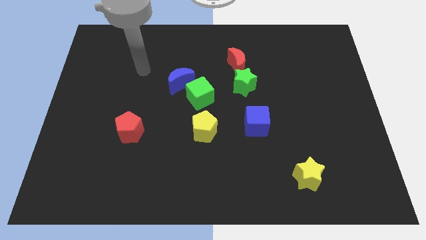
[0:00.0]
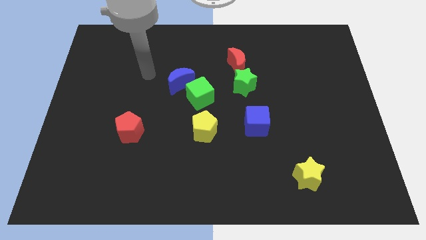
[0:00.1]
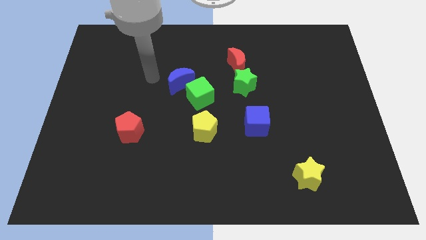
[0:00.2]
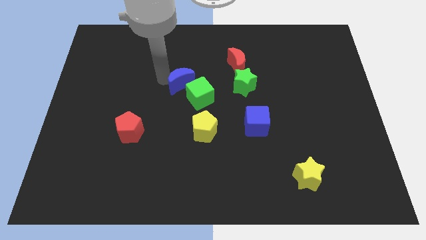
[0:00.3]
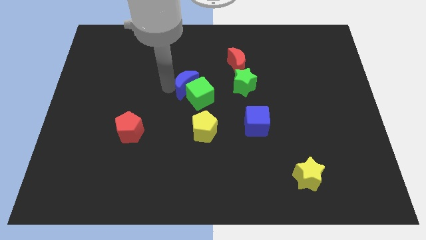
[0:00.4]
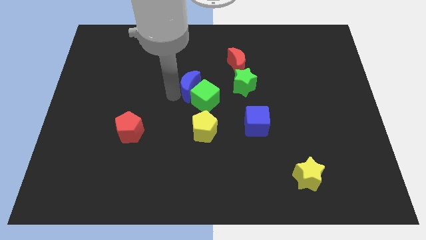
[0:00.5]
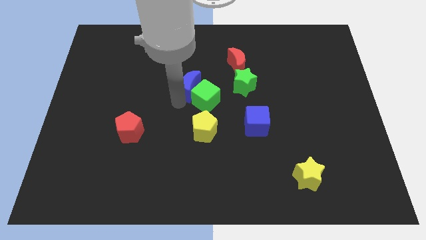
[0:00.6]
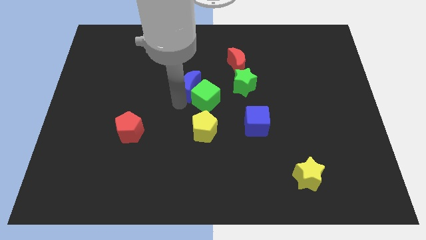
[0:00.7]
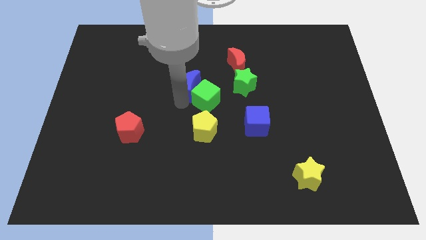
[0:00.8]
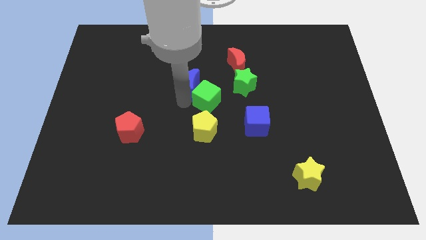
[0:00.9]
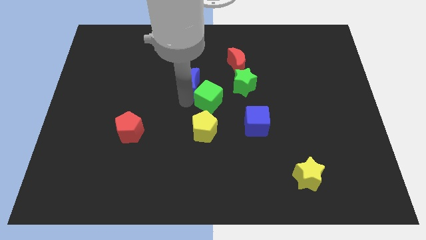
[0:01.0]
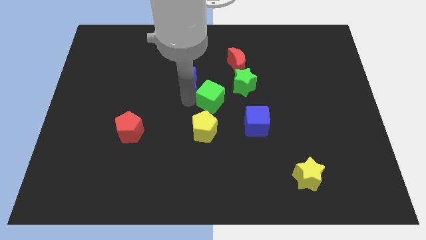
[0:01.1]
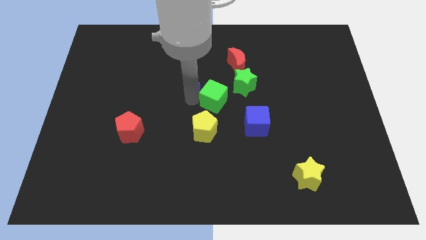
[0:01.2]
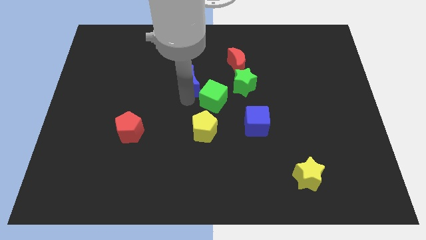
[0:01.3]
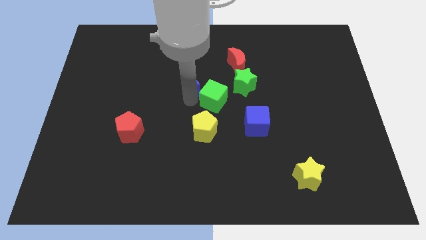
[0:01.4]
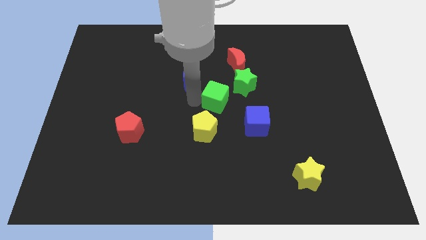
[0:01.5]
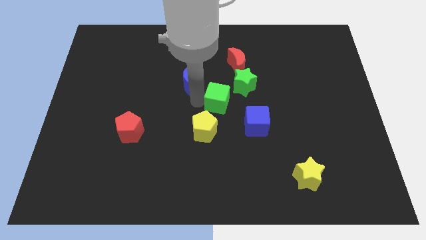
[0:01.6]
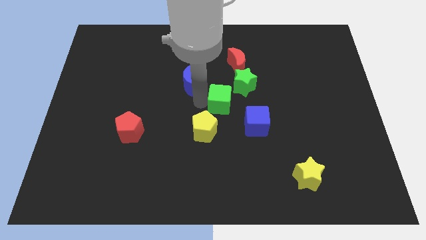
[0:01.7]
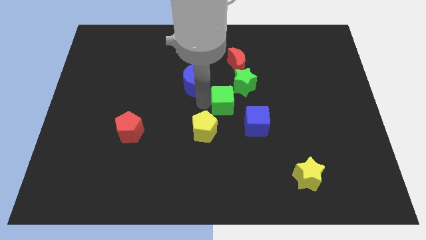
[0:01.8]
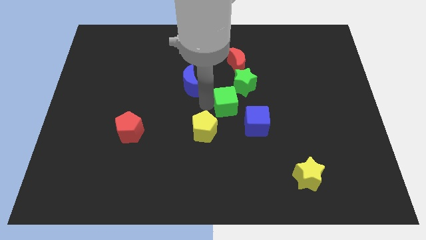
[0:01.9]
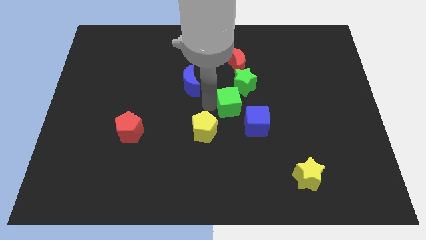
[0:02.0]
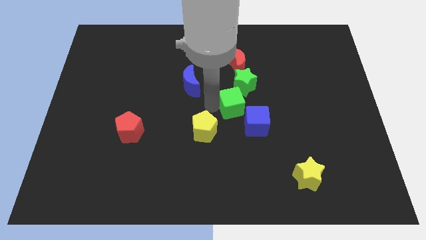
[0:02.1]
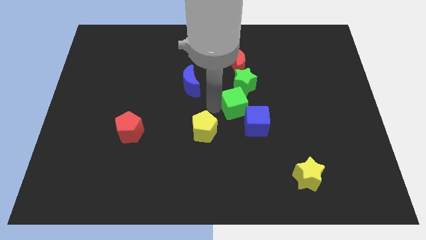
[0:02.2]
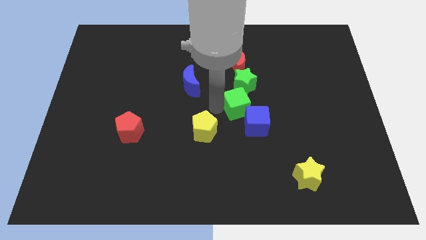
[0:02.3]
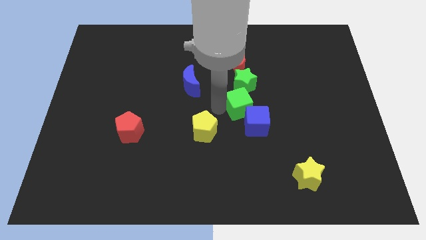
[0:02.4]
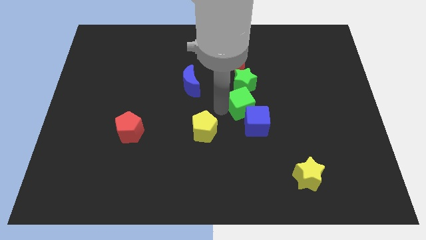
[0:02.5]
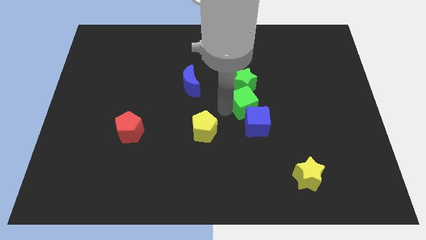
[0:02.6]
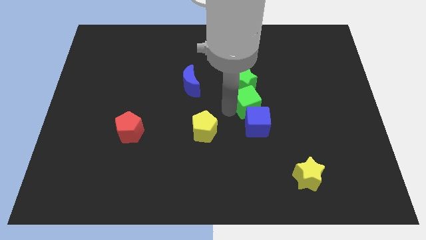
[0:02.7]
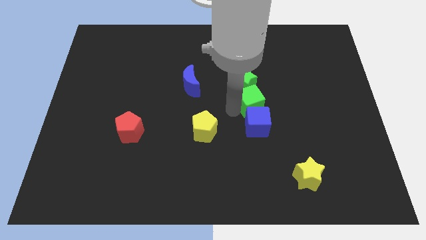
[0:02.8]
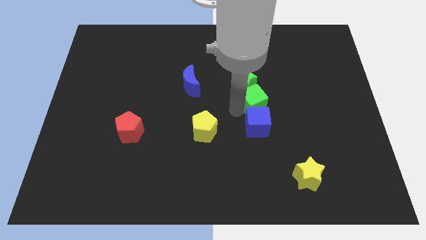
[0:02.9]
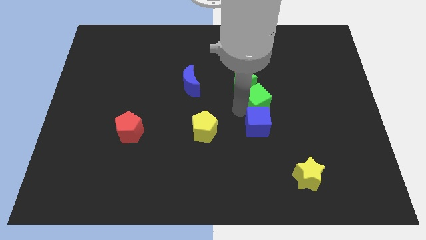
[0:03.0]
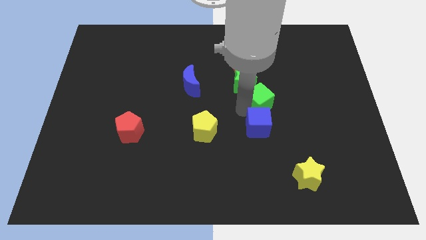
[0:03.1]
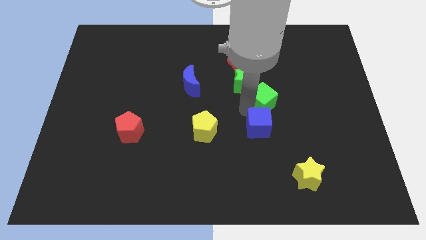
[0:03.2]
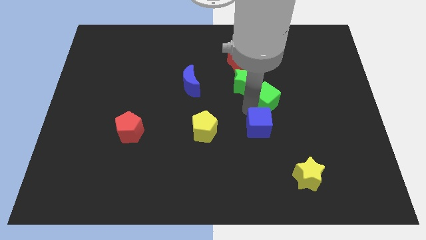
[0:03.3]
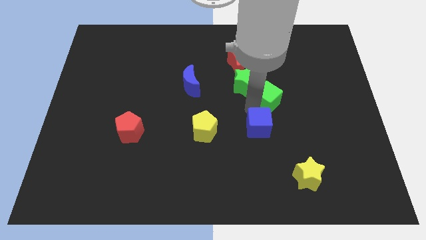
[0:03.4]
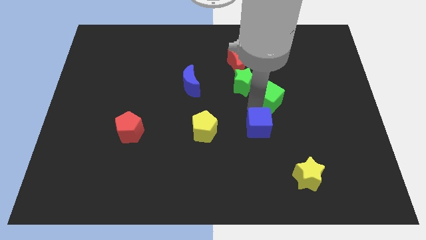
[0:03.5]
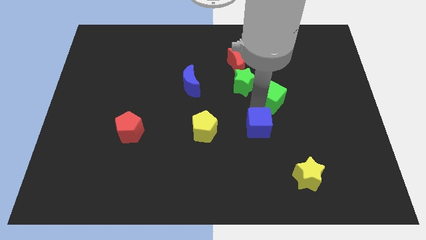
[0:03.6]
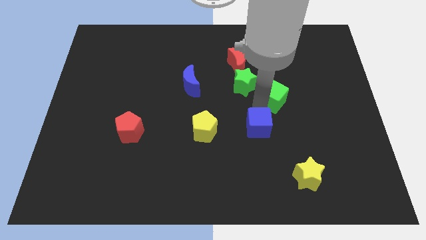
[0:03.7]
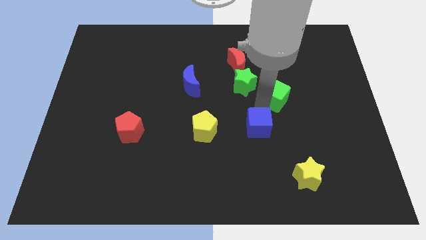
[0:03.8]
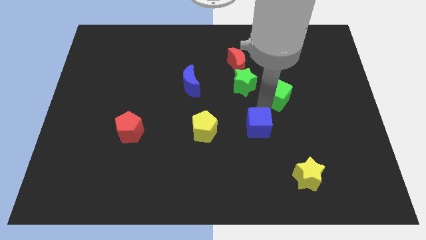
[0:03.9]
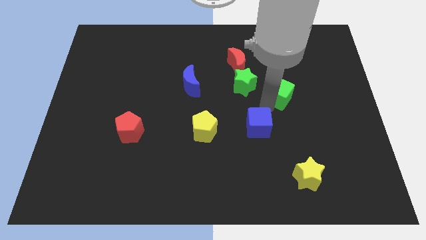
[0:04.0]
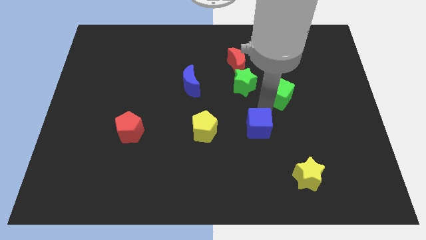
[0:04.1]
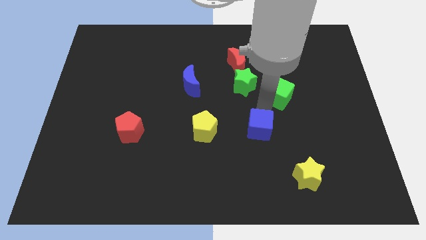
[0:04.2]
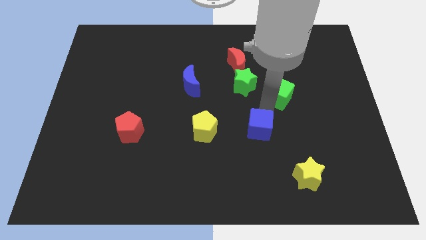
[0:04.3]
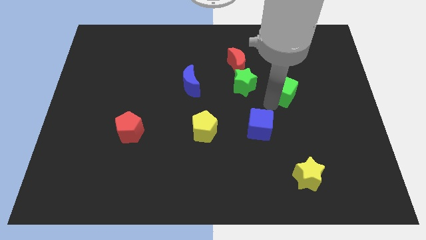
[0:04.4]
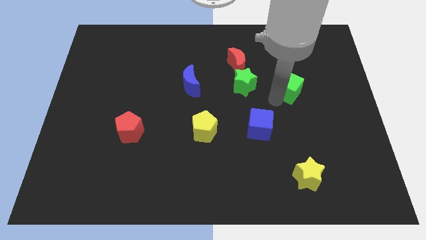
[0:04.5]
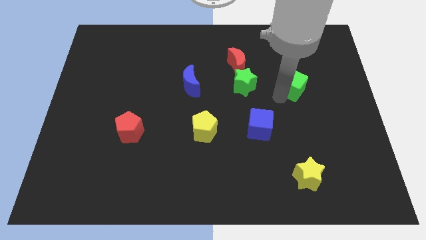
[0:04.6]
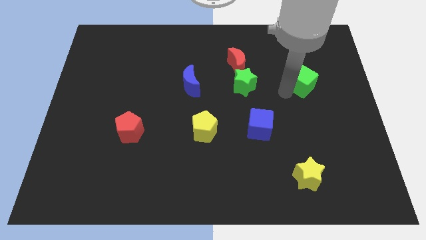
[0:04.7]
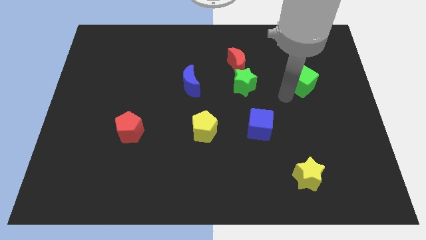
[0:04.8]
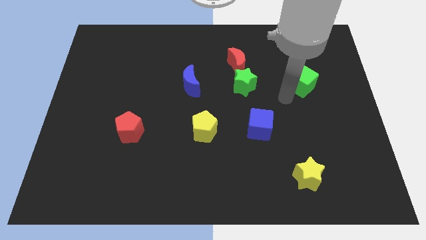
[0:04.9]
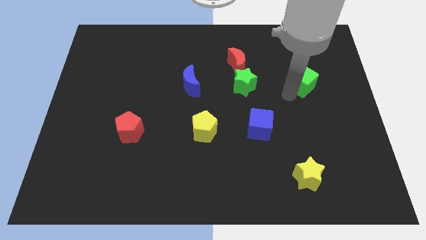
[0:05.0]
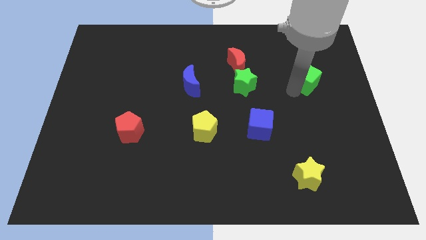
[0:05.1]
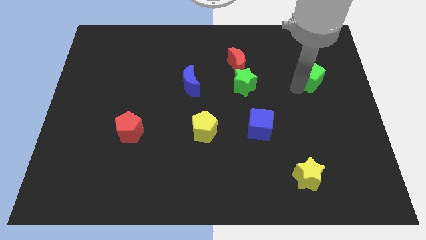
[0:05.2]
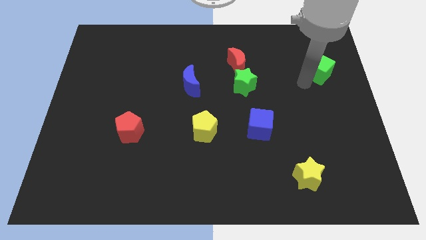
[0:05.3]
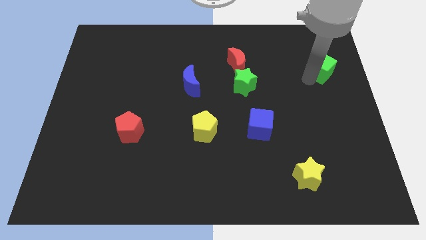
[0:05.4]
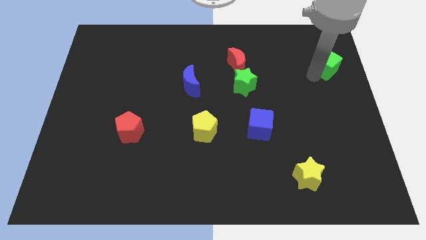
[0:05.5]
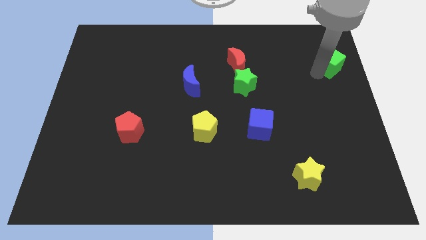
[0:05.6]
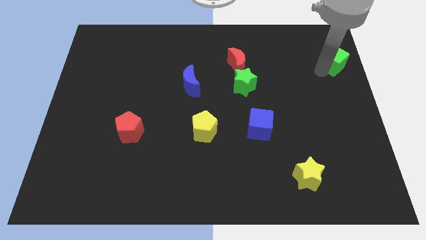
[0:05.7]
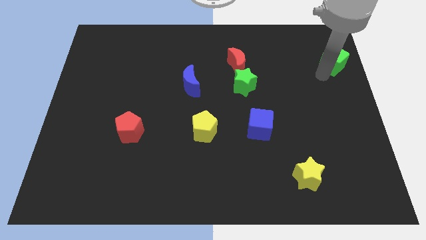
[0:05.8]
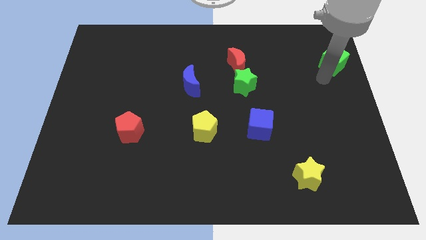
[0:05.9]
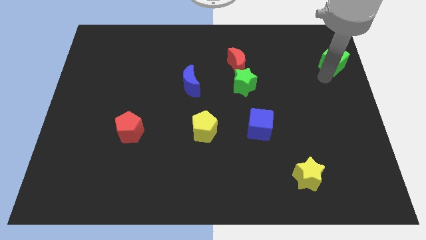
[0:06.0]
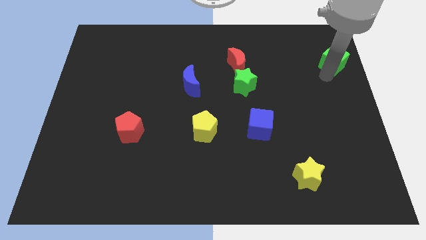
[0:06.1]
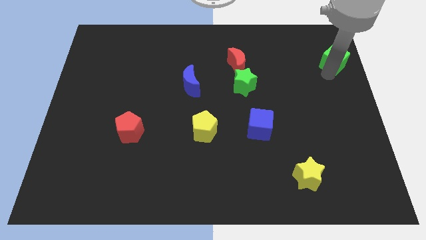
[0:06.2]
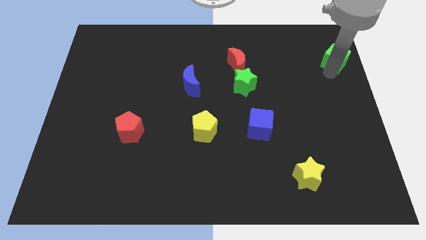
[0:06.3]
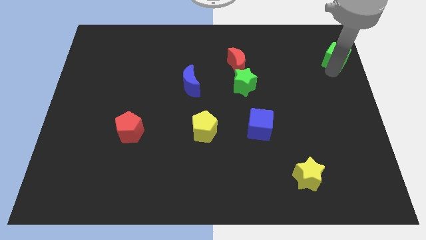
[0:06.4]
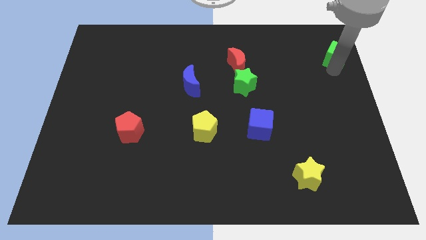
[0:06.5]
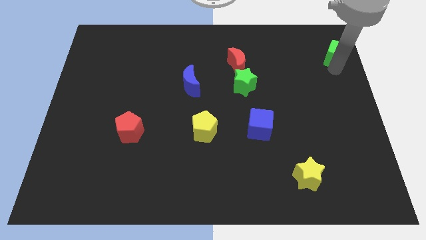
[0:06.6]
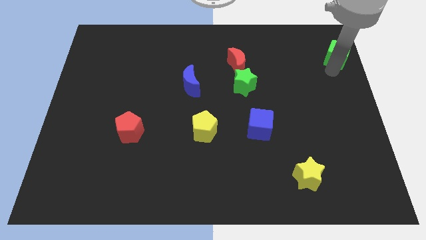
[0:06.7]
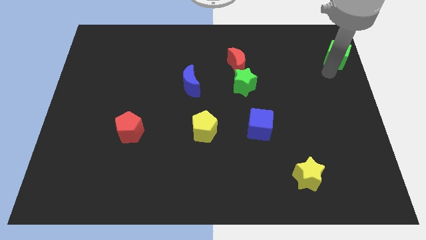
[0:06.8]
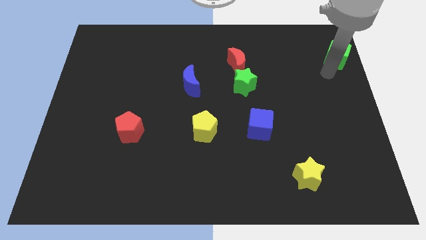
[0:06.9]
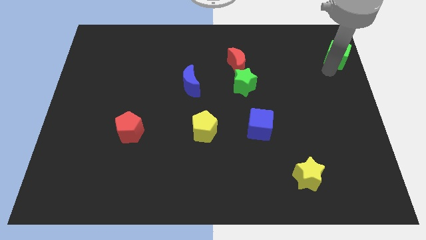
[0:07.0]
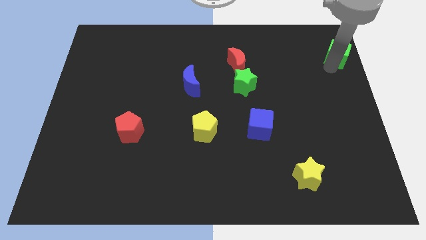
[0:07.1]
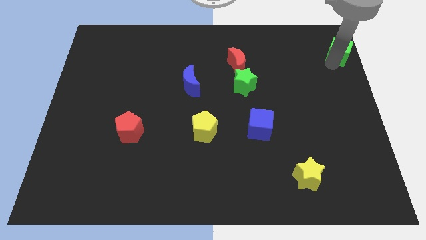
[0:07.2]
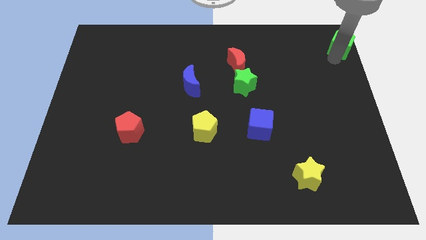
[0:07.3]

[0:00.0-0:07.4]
push the green cube to the top right corner
